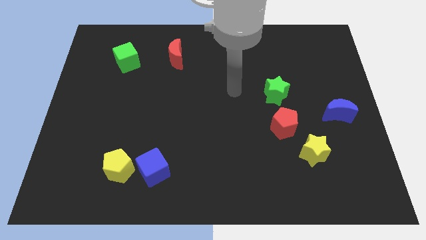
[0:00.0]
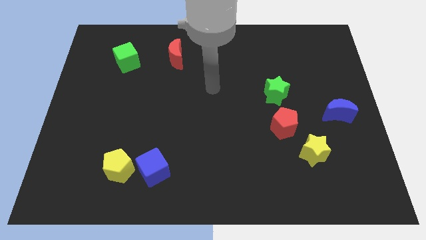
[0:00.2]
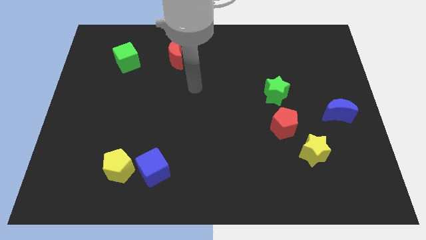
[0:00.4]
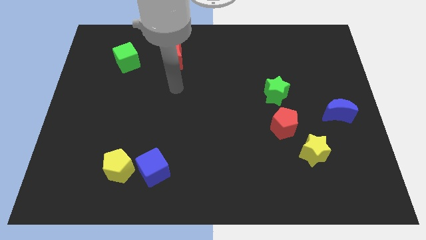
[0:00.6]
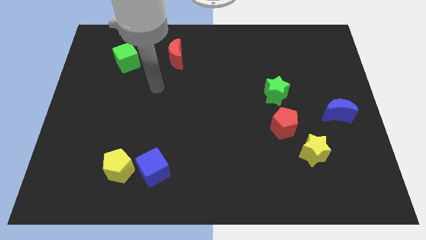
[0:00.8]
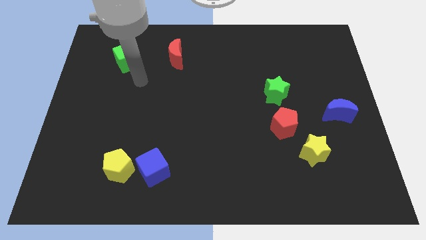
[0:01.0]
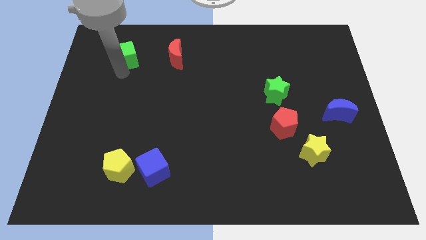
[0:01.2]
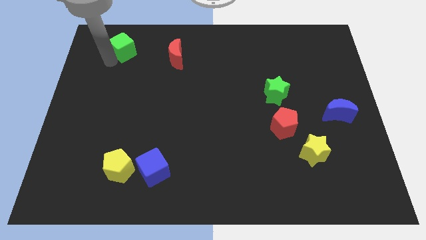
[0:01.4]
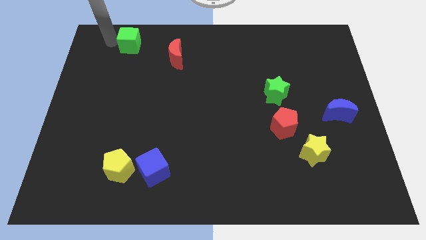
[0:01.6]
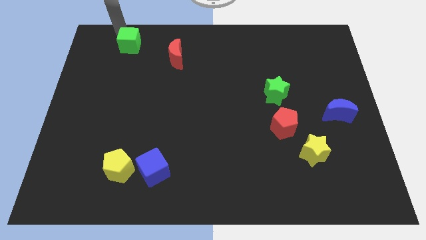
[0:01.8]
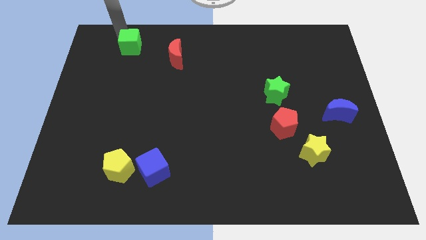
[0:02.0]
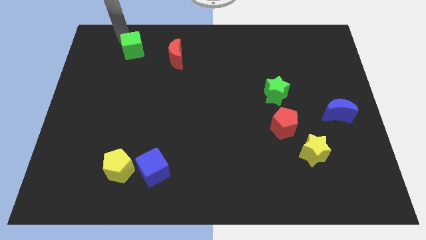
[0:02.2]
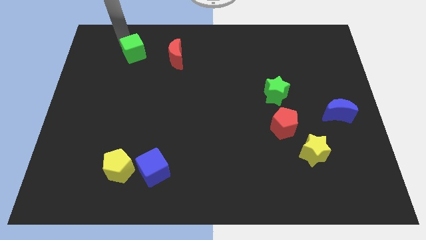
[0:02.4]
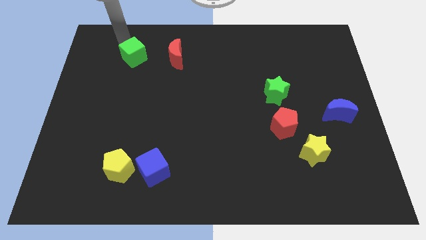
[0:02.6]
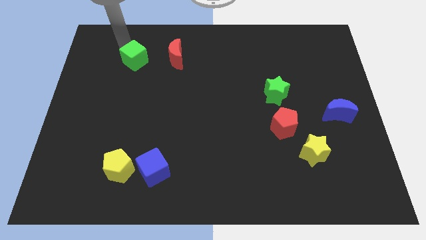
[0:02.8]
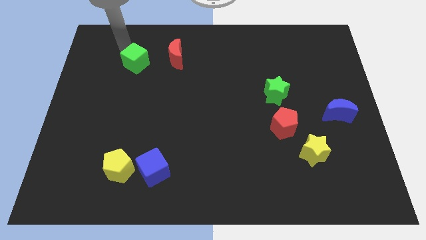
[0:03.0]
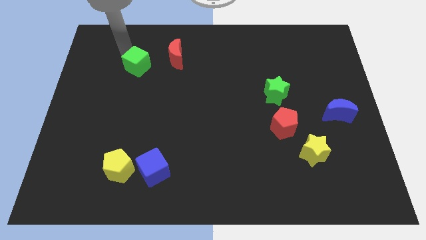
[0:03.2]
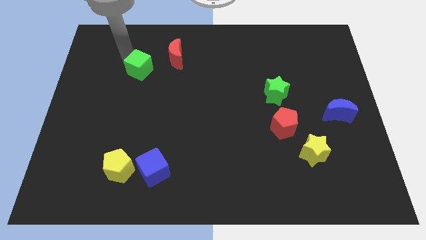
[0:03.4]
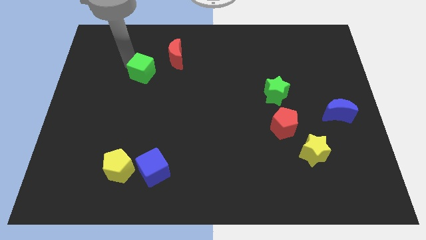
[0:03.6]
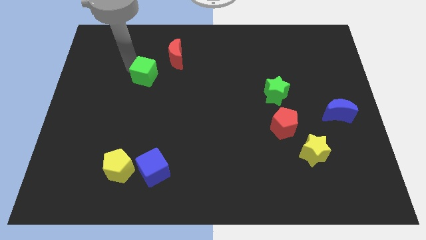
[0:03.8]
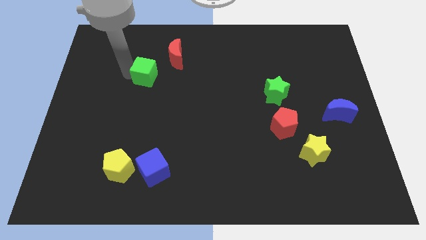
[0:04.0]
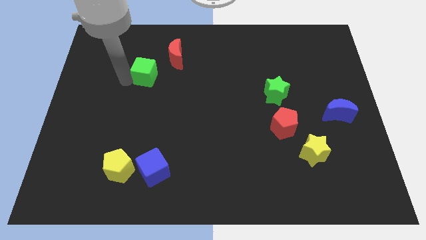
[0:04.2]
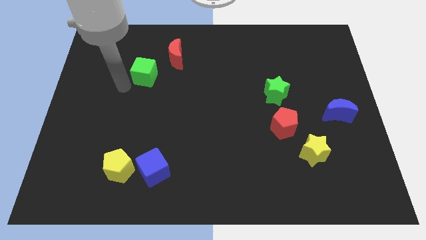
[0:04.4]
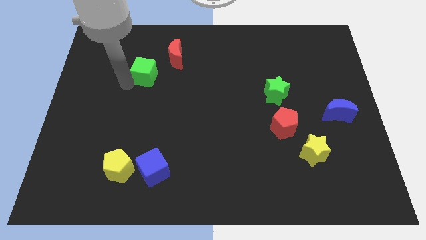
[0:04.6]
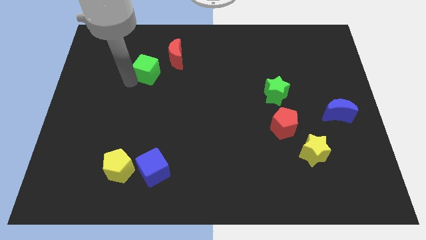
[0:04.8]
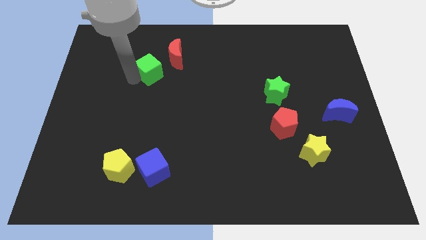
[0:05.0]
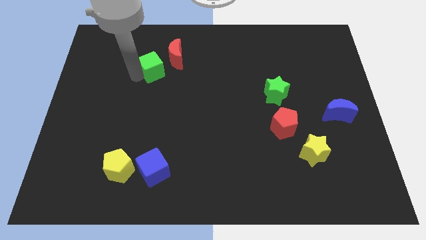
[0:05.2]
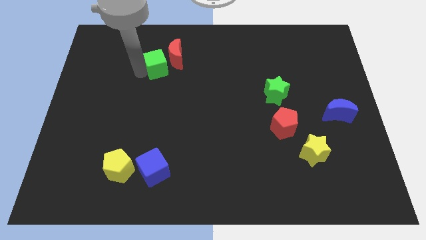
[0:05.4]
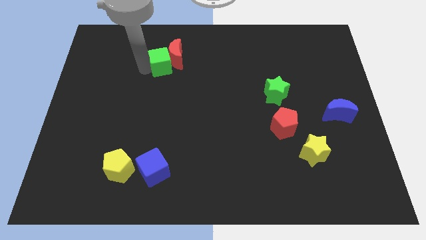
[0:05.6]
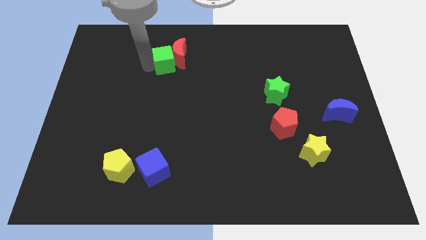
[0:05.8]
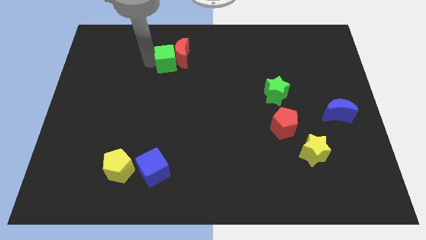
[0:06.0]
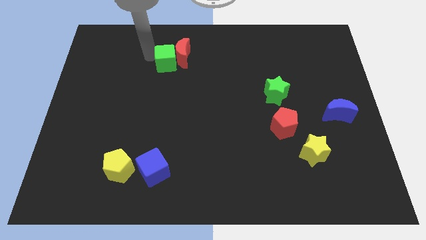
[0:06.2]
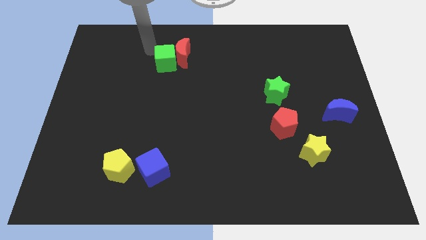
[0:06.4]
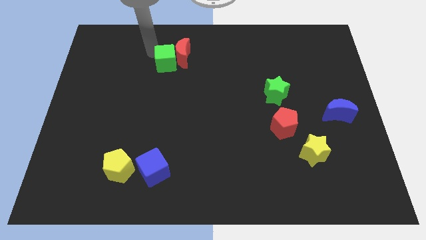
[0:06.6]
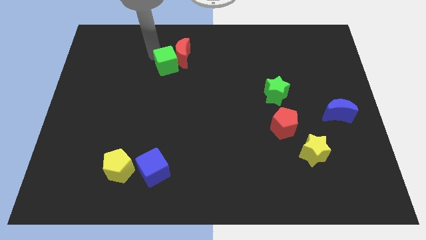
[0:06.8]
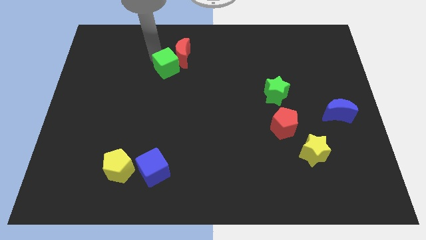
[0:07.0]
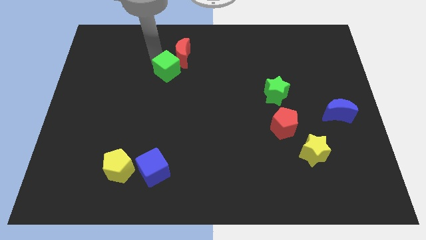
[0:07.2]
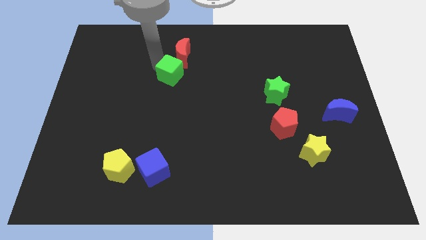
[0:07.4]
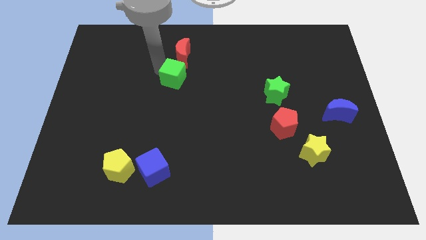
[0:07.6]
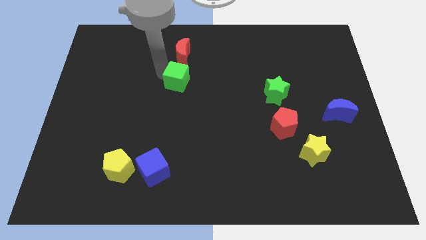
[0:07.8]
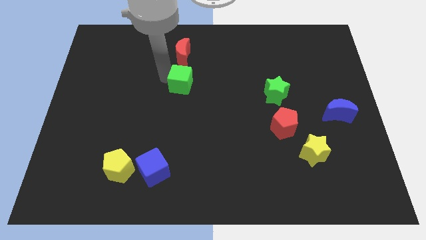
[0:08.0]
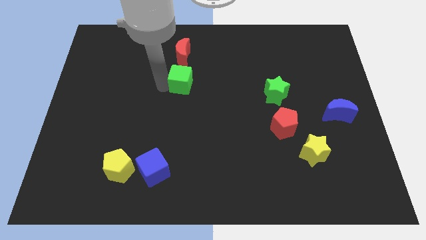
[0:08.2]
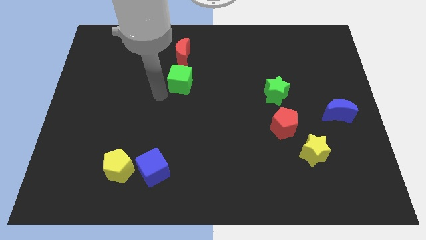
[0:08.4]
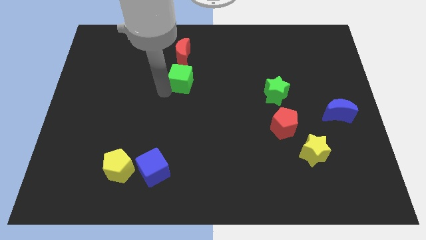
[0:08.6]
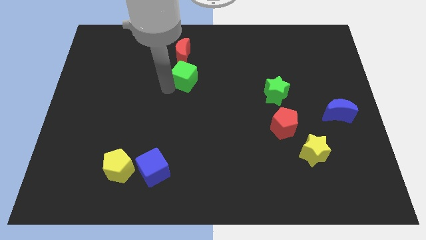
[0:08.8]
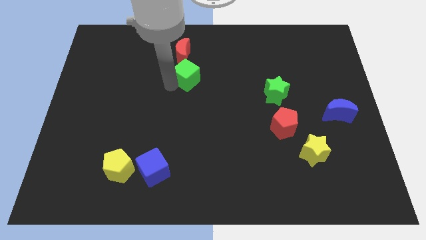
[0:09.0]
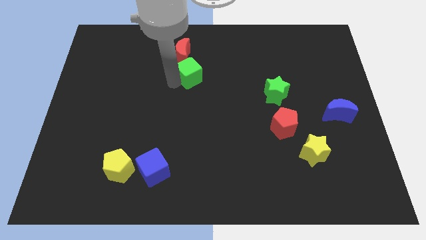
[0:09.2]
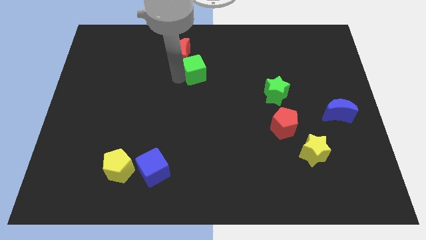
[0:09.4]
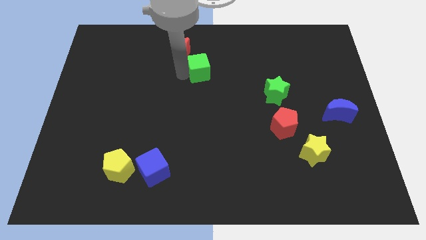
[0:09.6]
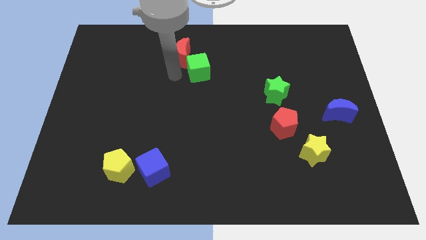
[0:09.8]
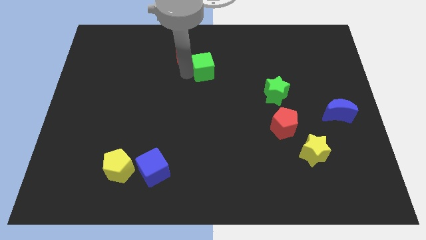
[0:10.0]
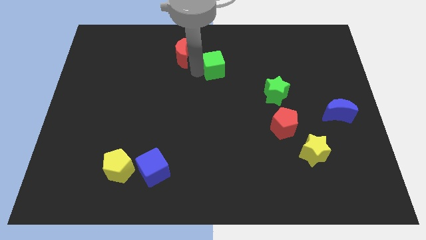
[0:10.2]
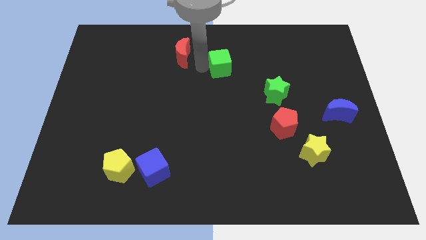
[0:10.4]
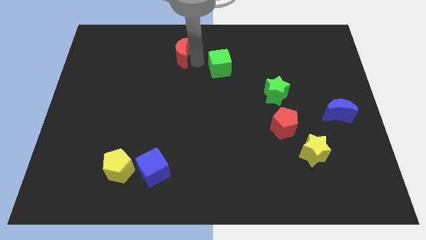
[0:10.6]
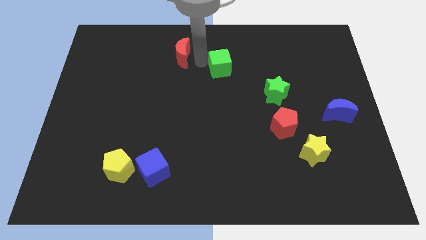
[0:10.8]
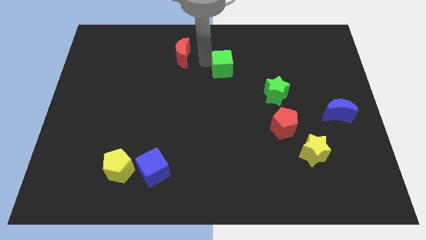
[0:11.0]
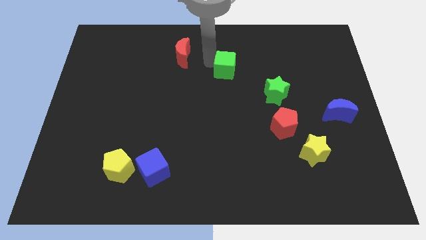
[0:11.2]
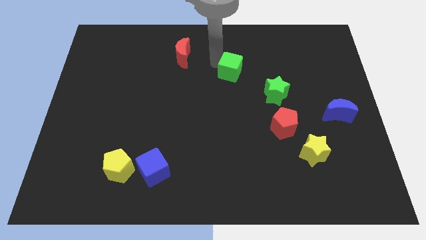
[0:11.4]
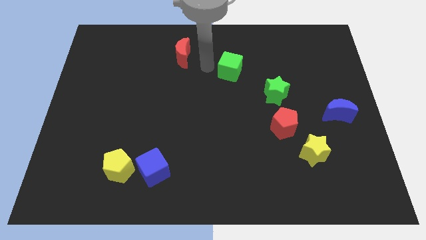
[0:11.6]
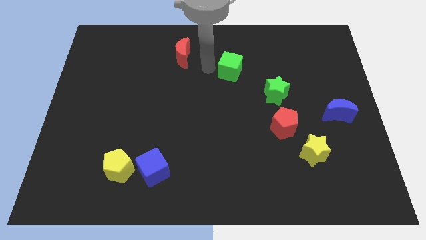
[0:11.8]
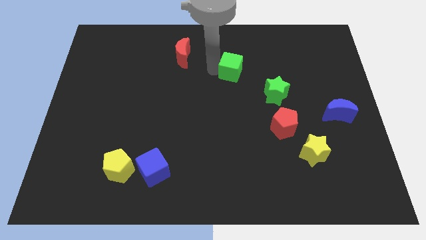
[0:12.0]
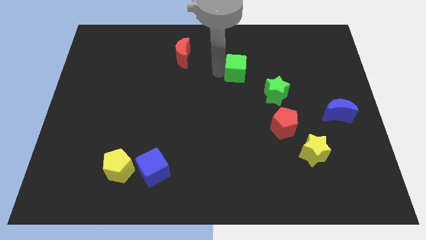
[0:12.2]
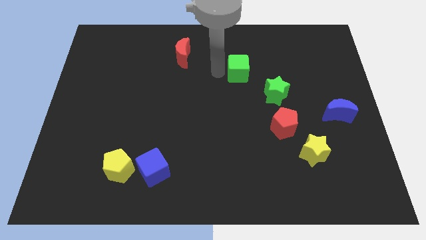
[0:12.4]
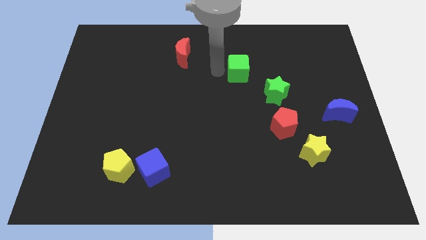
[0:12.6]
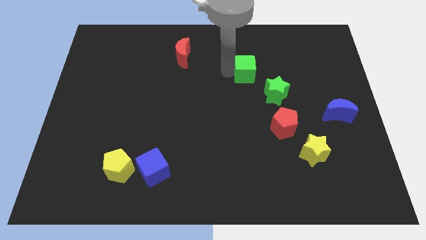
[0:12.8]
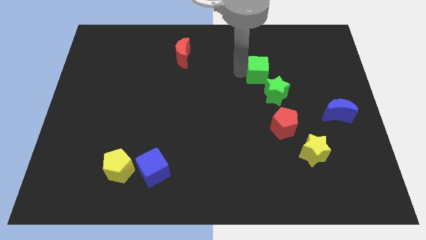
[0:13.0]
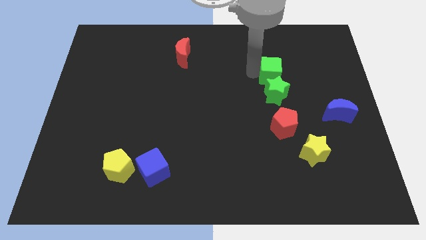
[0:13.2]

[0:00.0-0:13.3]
put the green cube to the top right of the green star

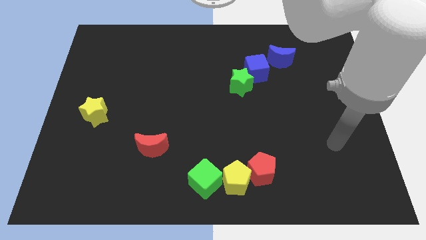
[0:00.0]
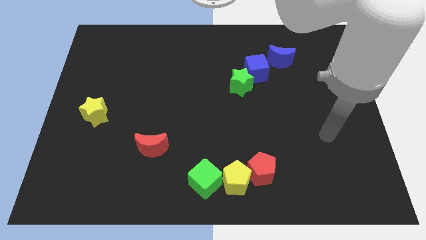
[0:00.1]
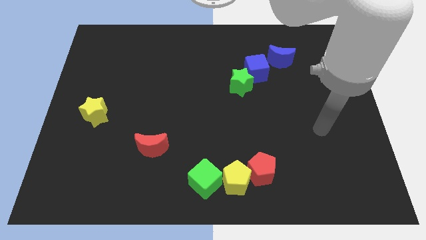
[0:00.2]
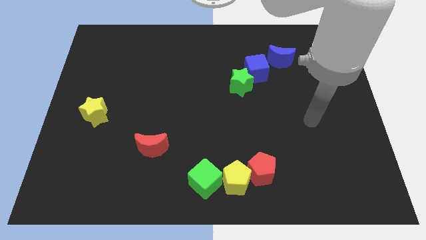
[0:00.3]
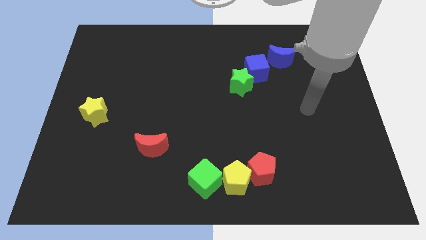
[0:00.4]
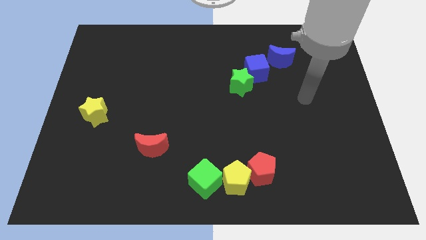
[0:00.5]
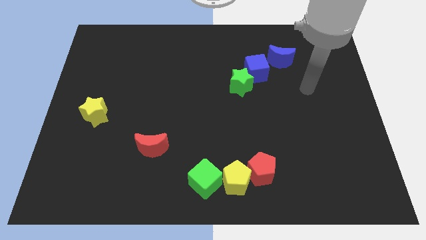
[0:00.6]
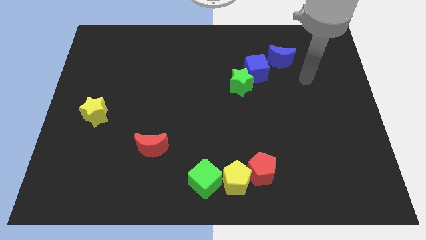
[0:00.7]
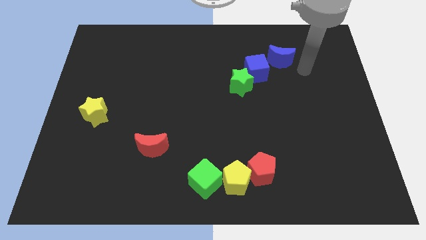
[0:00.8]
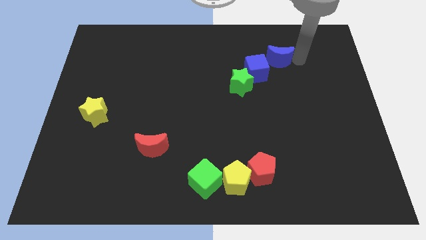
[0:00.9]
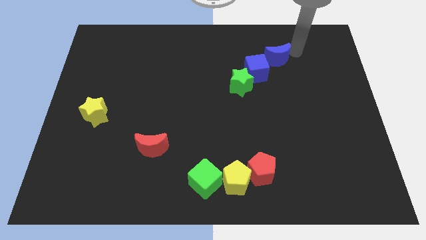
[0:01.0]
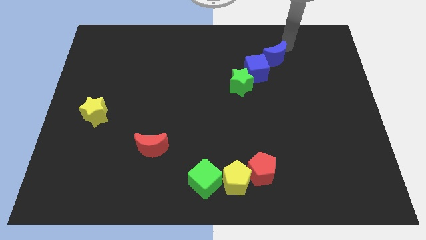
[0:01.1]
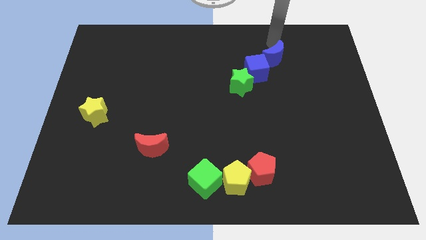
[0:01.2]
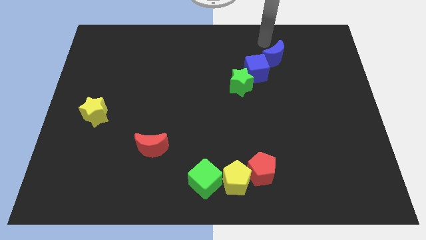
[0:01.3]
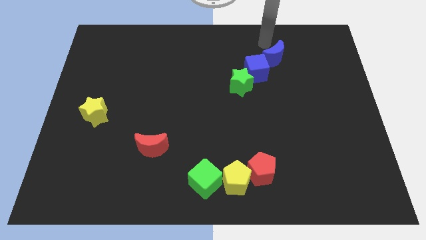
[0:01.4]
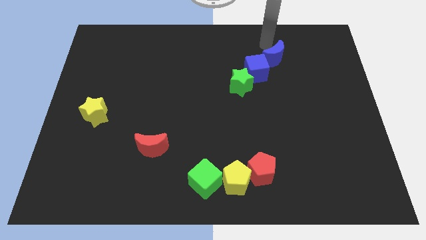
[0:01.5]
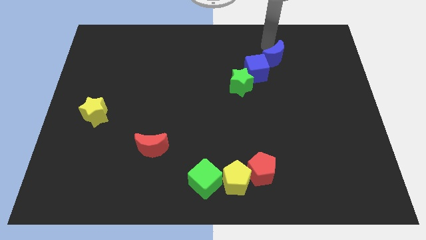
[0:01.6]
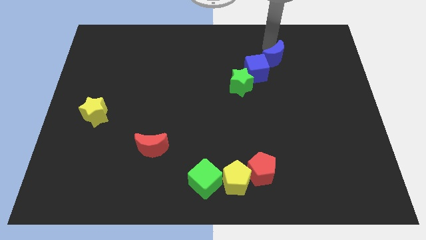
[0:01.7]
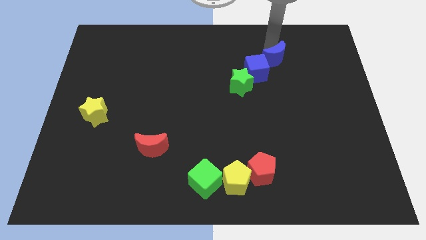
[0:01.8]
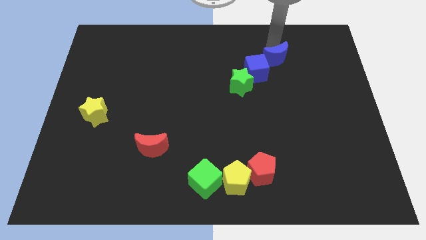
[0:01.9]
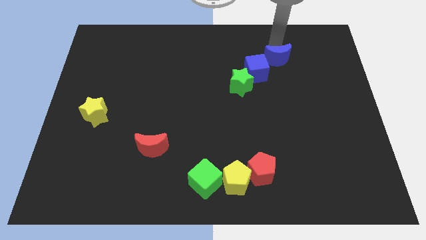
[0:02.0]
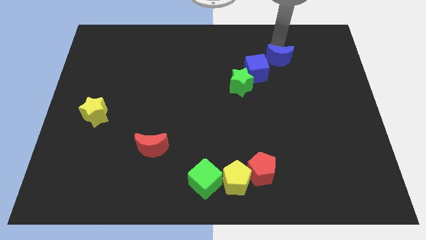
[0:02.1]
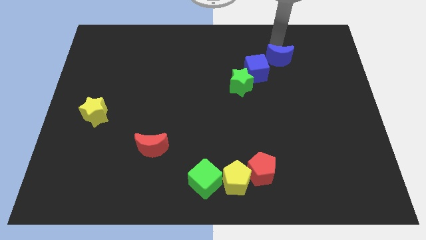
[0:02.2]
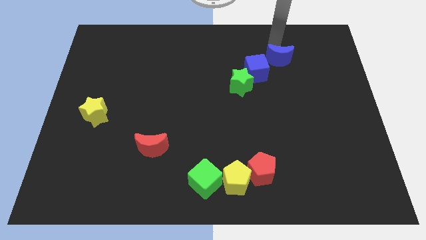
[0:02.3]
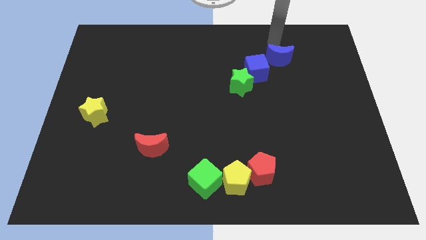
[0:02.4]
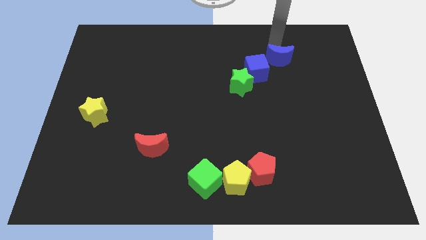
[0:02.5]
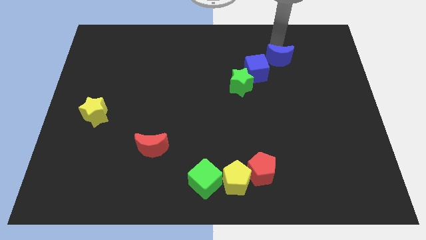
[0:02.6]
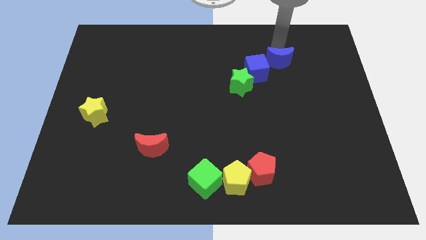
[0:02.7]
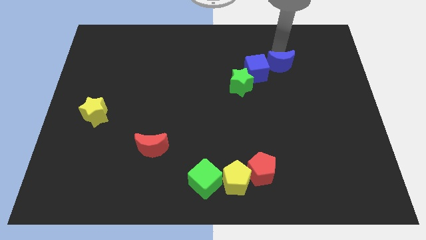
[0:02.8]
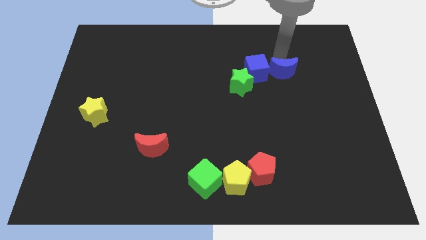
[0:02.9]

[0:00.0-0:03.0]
move the blue moon right of the green star
